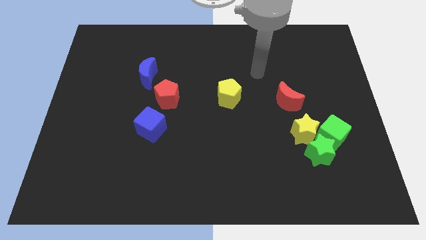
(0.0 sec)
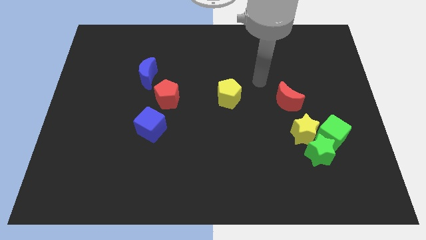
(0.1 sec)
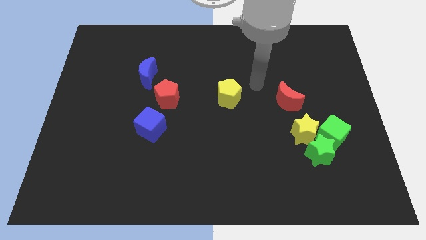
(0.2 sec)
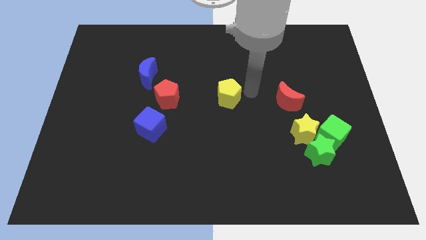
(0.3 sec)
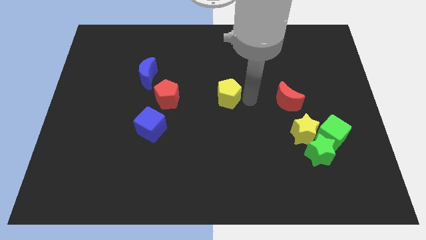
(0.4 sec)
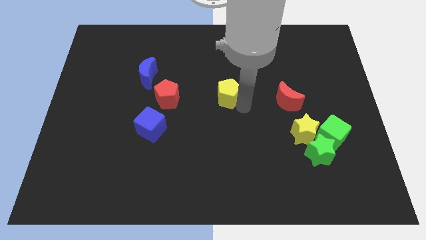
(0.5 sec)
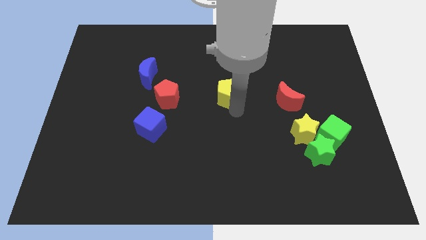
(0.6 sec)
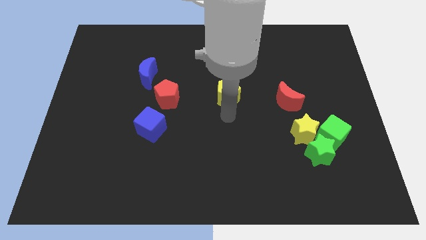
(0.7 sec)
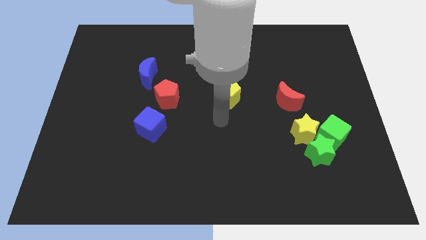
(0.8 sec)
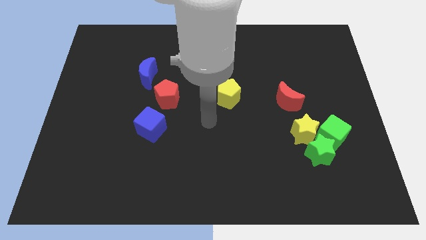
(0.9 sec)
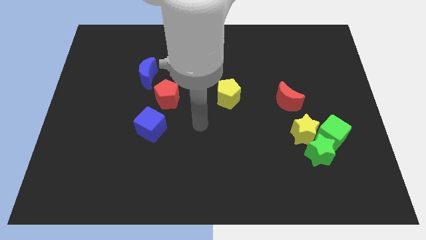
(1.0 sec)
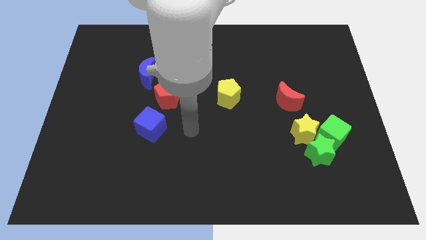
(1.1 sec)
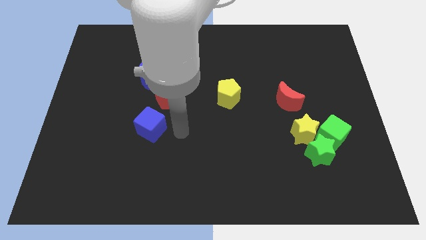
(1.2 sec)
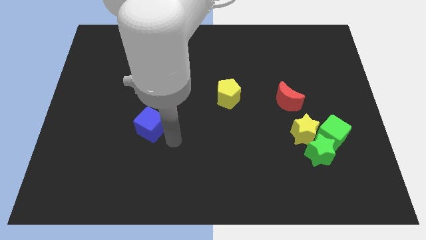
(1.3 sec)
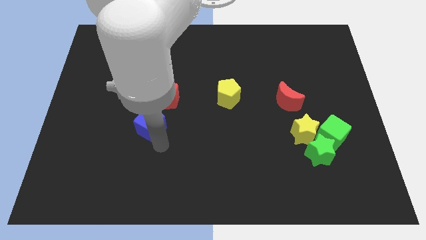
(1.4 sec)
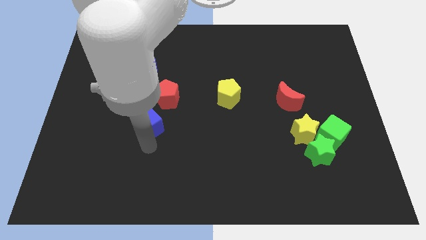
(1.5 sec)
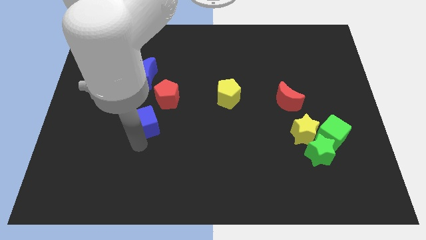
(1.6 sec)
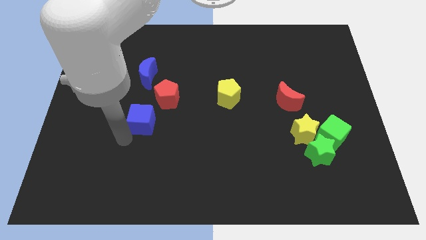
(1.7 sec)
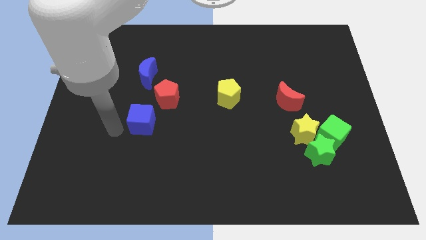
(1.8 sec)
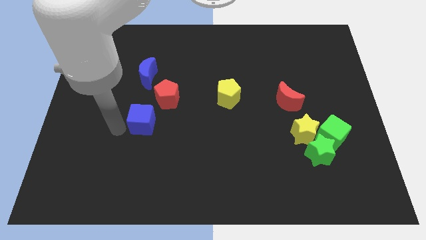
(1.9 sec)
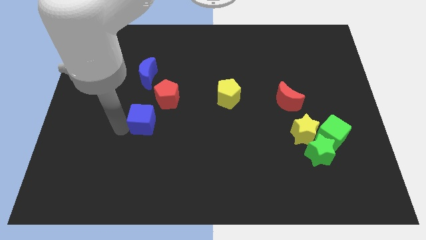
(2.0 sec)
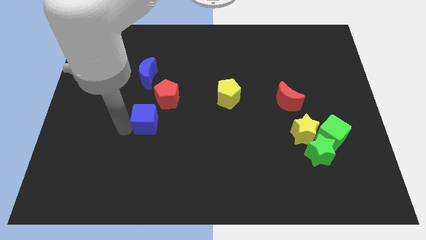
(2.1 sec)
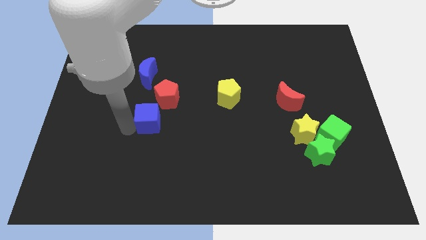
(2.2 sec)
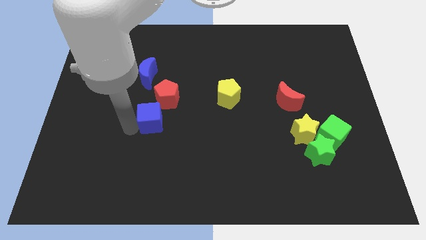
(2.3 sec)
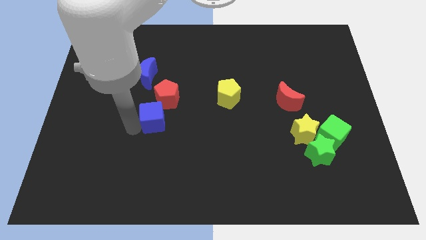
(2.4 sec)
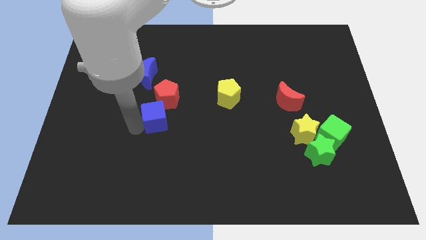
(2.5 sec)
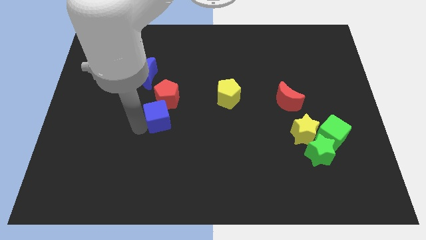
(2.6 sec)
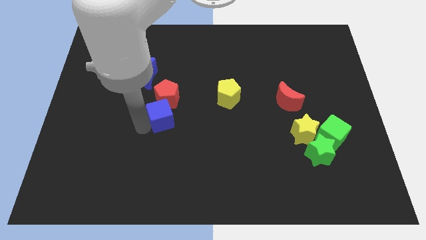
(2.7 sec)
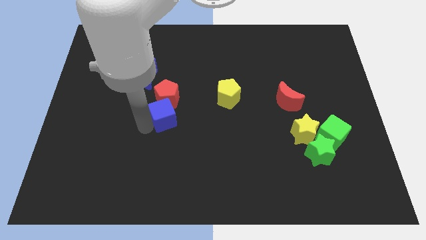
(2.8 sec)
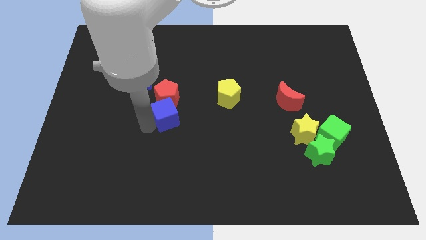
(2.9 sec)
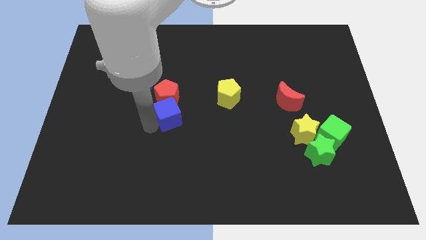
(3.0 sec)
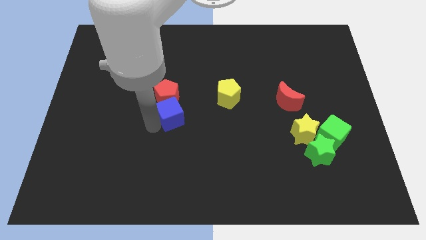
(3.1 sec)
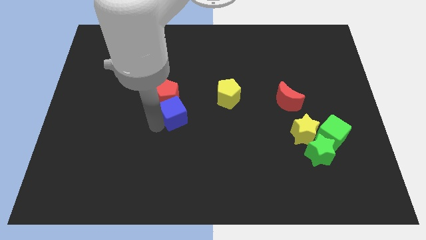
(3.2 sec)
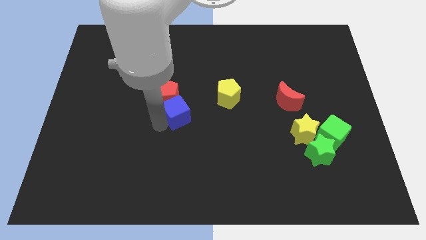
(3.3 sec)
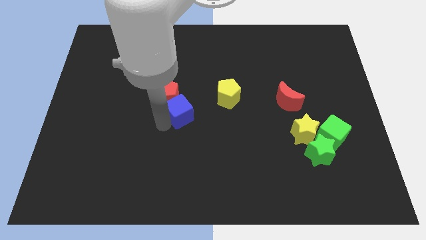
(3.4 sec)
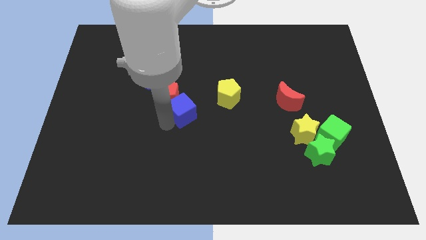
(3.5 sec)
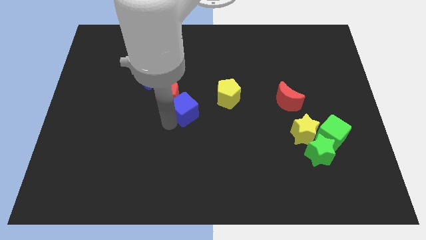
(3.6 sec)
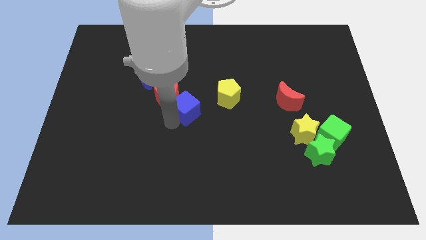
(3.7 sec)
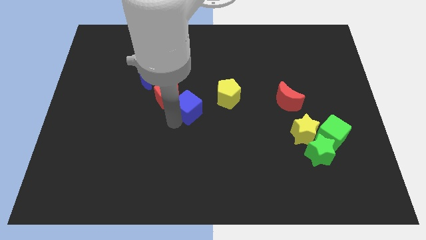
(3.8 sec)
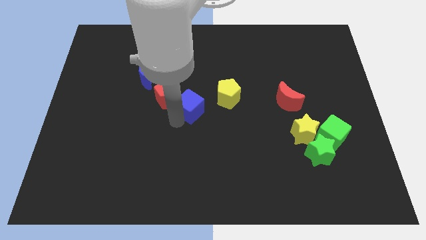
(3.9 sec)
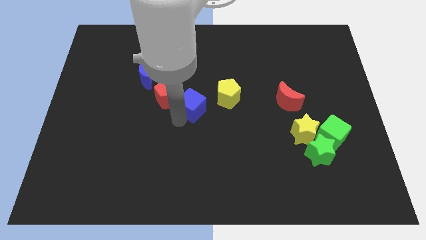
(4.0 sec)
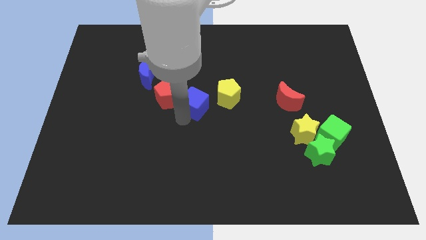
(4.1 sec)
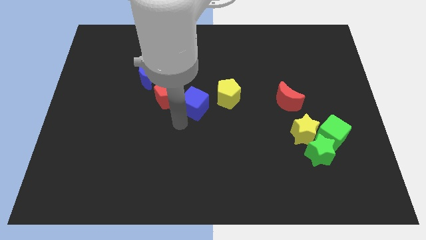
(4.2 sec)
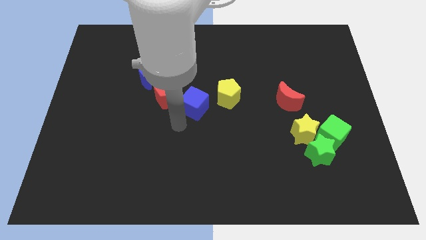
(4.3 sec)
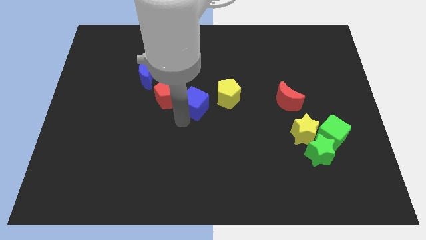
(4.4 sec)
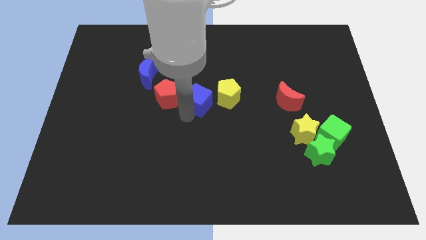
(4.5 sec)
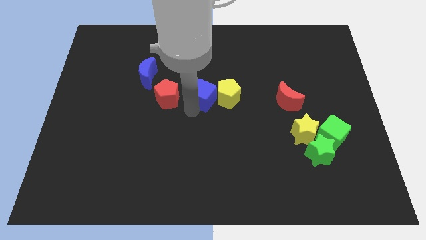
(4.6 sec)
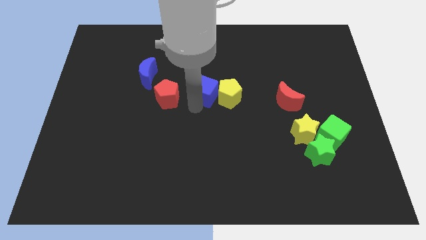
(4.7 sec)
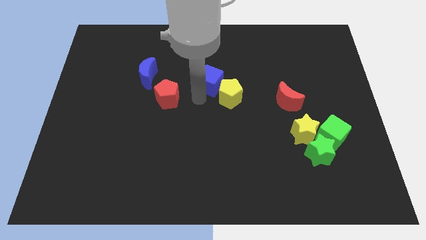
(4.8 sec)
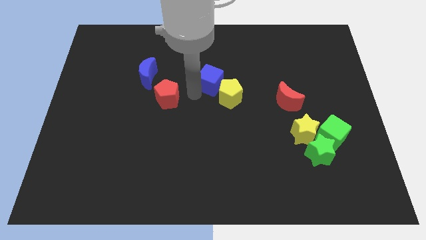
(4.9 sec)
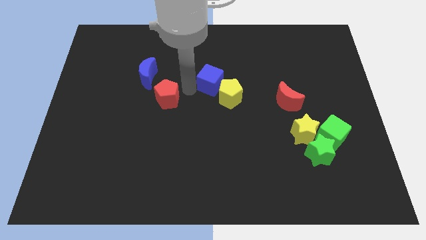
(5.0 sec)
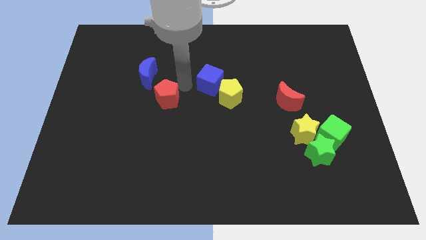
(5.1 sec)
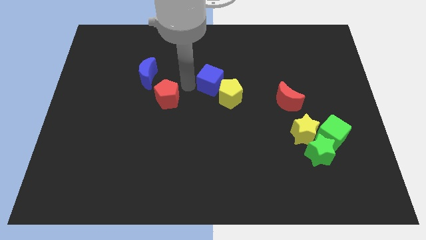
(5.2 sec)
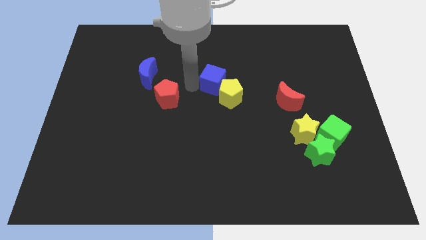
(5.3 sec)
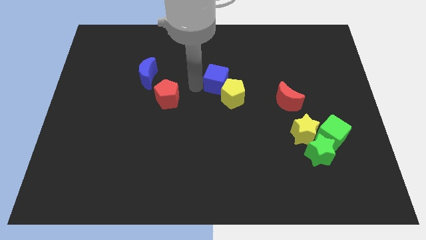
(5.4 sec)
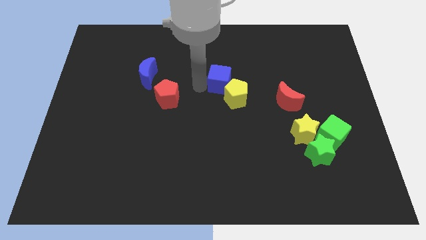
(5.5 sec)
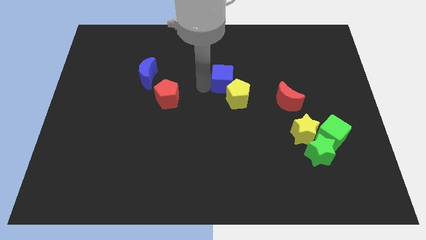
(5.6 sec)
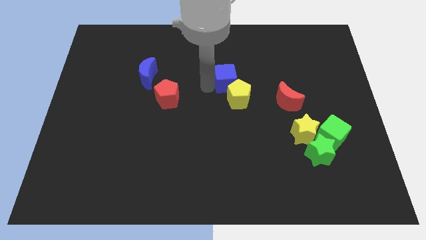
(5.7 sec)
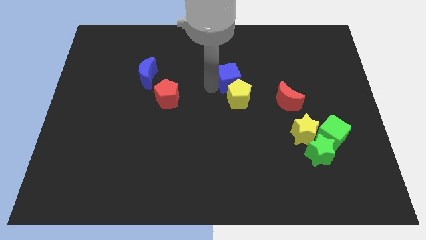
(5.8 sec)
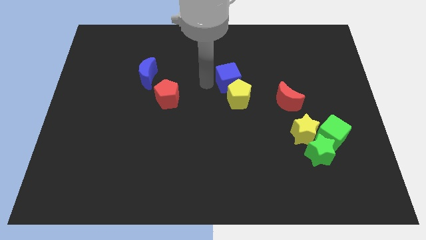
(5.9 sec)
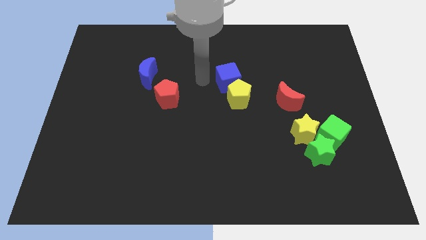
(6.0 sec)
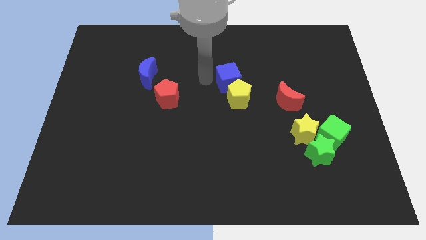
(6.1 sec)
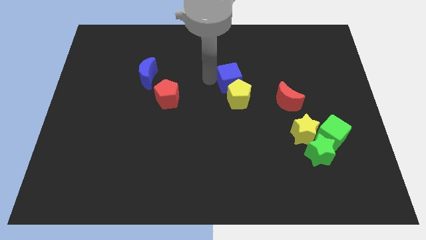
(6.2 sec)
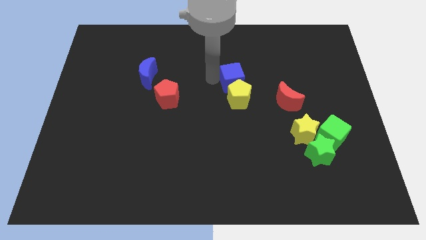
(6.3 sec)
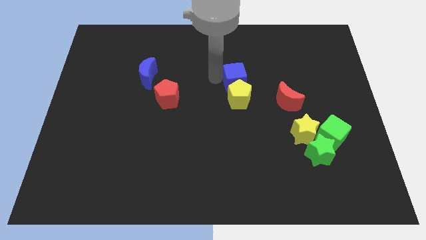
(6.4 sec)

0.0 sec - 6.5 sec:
slide the blue cube to the top right of the yellow pentagon

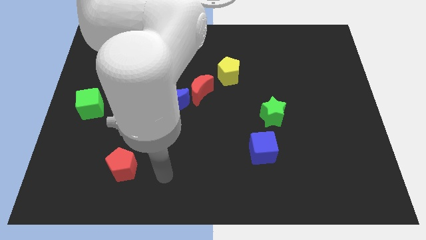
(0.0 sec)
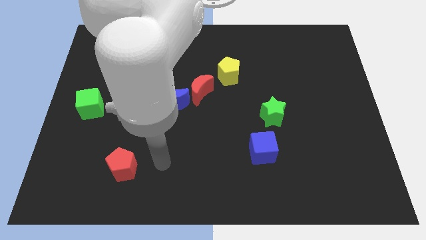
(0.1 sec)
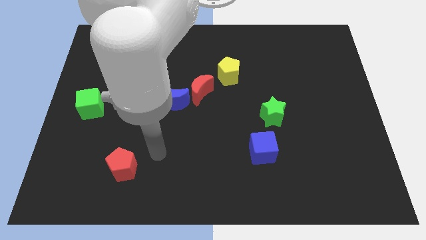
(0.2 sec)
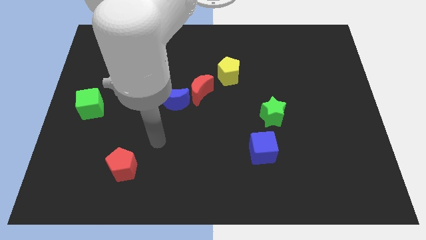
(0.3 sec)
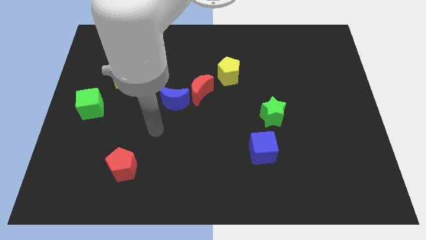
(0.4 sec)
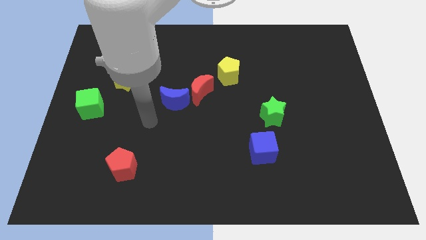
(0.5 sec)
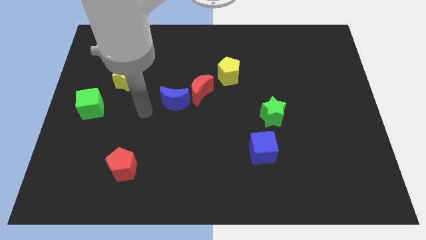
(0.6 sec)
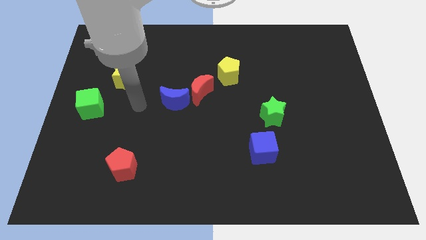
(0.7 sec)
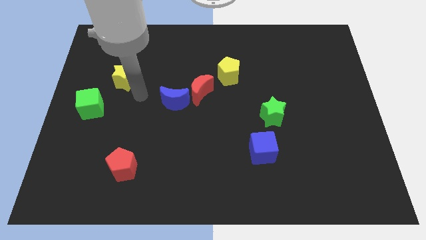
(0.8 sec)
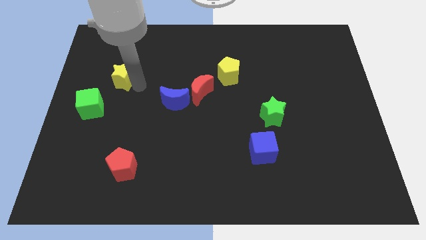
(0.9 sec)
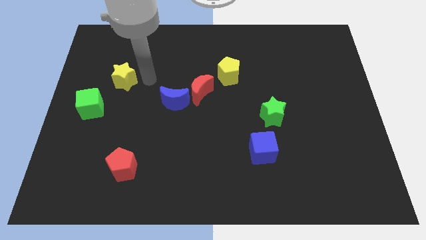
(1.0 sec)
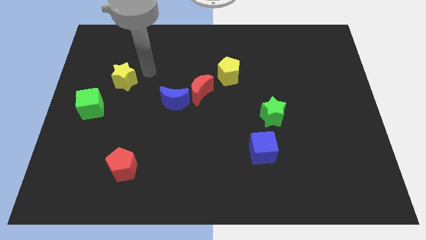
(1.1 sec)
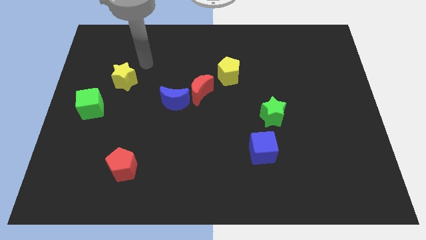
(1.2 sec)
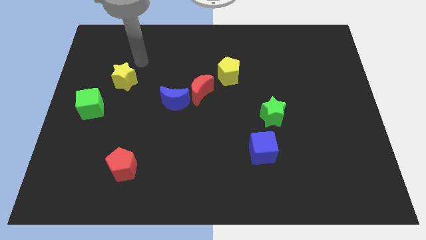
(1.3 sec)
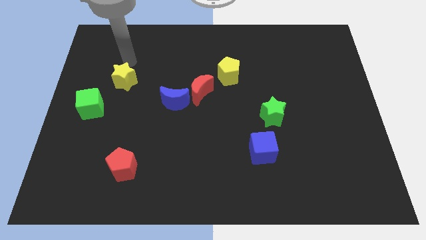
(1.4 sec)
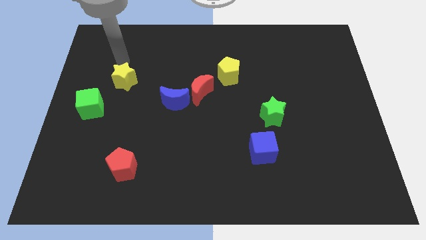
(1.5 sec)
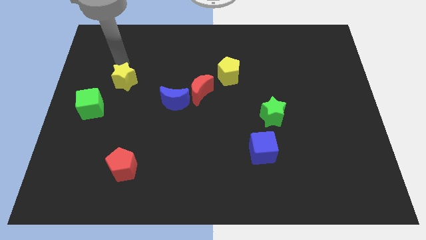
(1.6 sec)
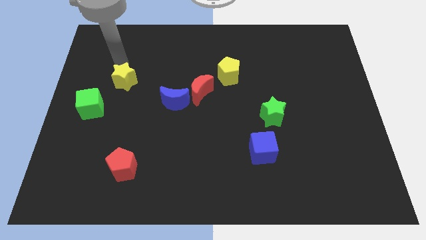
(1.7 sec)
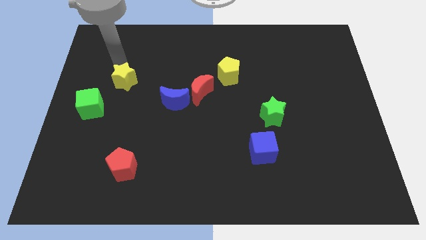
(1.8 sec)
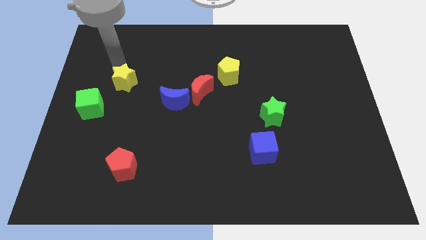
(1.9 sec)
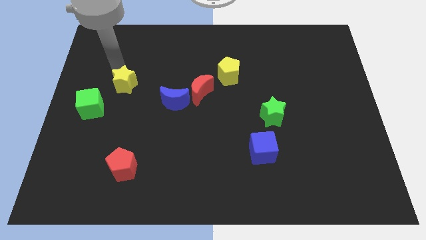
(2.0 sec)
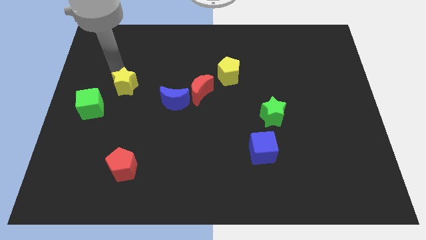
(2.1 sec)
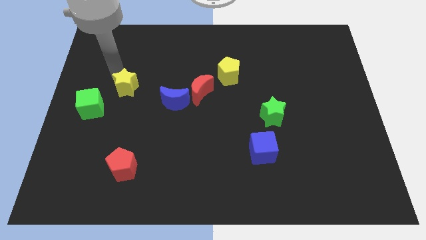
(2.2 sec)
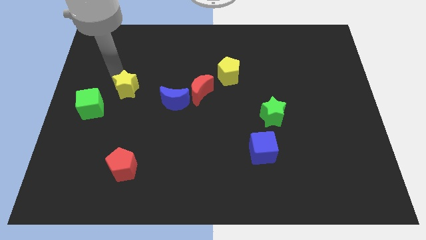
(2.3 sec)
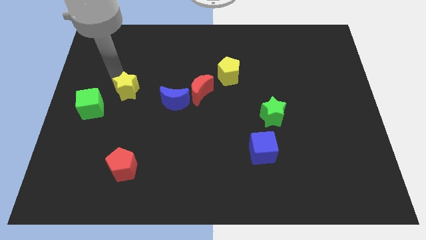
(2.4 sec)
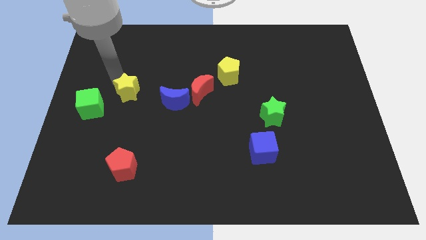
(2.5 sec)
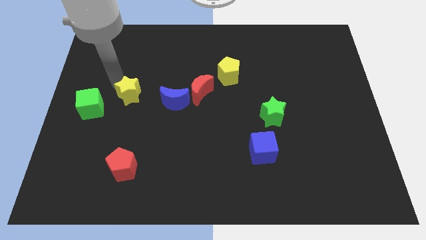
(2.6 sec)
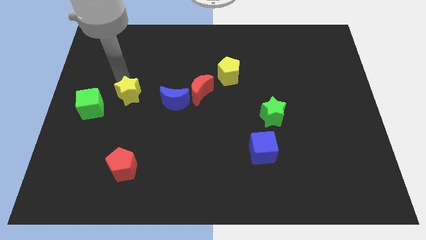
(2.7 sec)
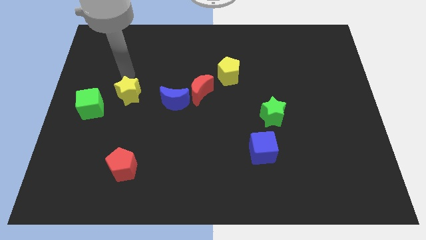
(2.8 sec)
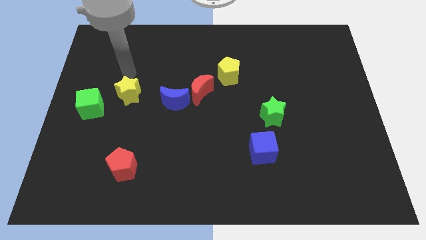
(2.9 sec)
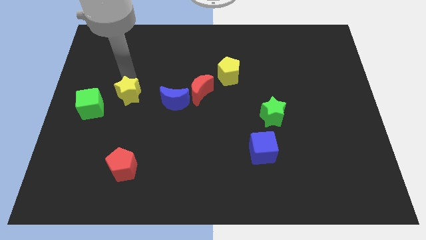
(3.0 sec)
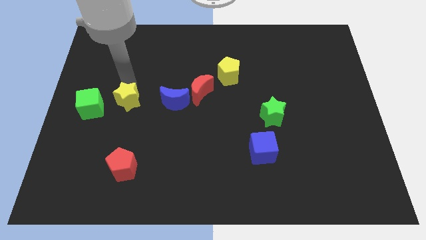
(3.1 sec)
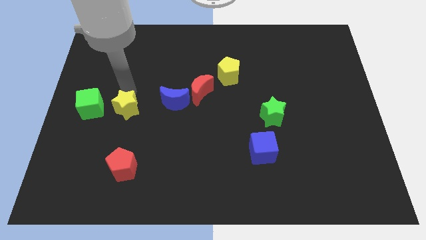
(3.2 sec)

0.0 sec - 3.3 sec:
slide the yellow star above the red pentagon
